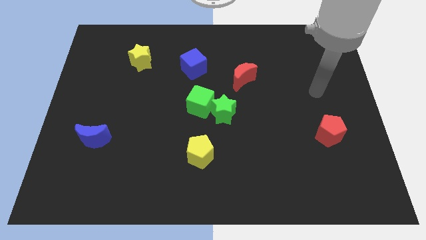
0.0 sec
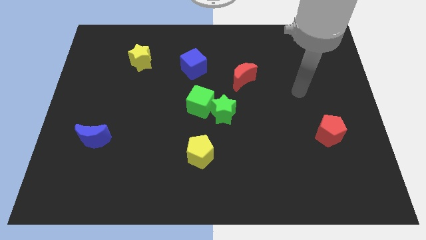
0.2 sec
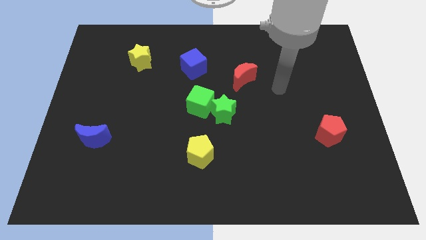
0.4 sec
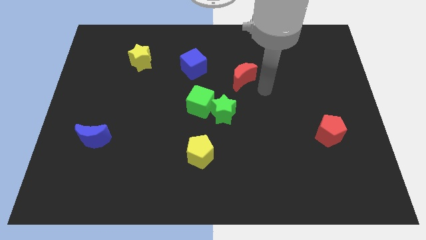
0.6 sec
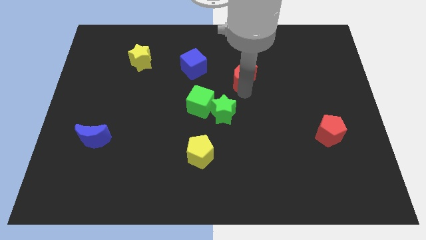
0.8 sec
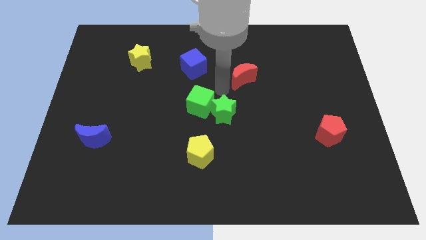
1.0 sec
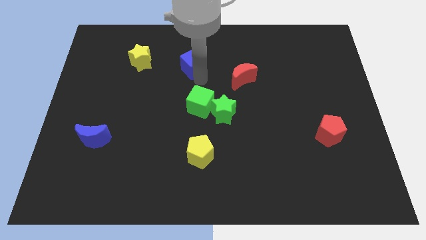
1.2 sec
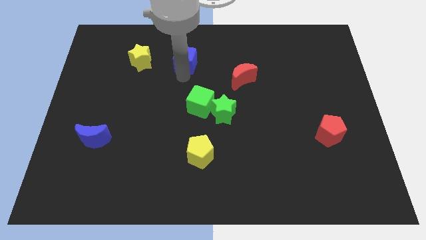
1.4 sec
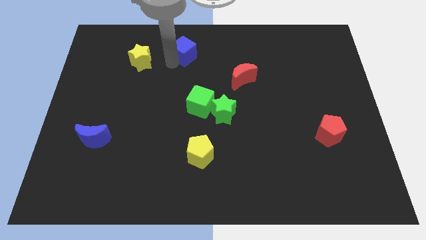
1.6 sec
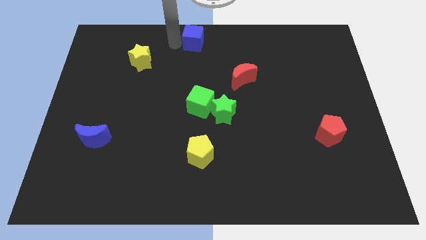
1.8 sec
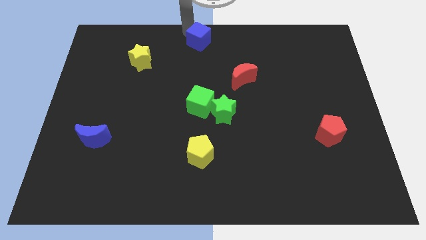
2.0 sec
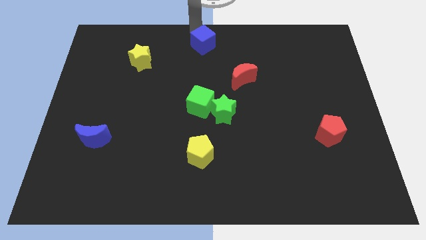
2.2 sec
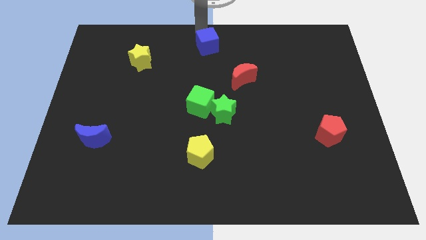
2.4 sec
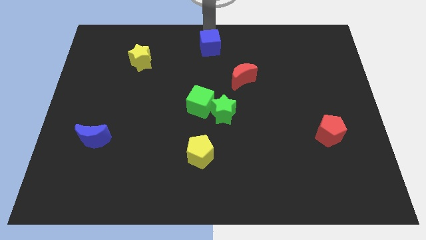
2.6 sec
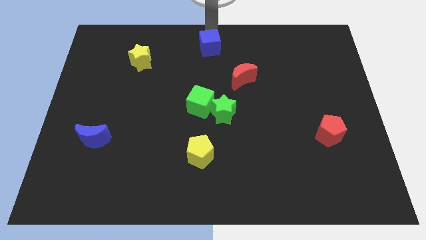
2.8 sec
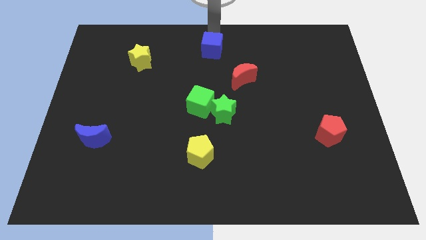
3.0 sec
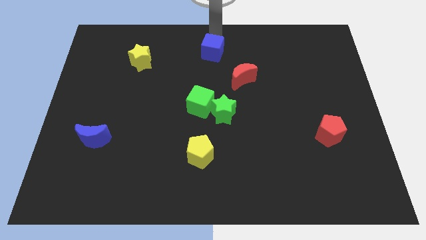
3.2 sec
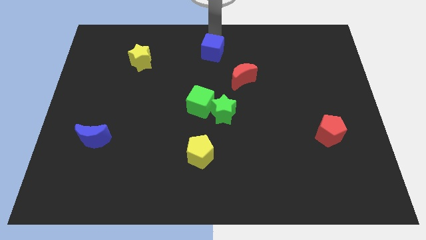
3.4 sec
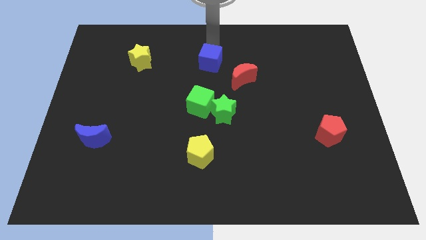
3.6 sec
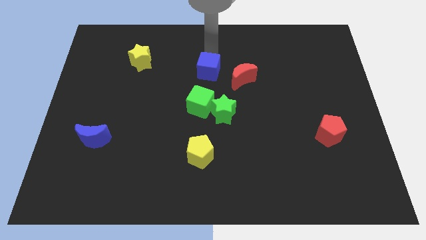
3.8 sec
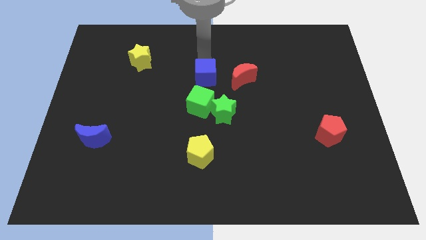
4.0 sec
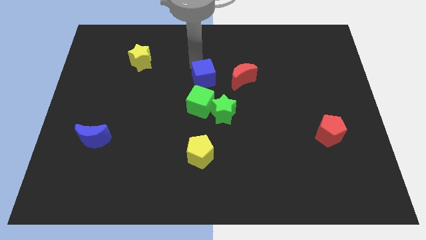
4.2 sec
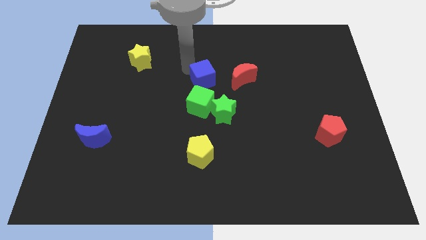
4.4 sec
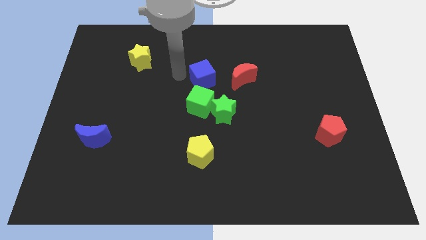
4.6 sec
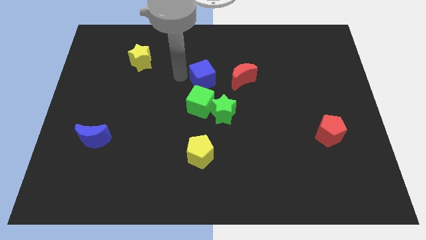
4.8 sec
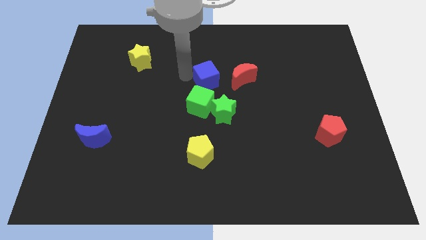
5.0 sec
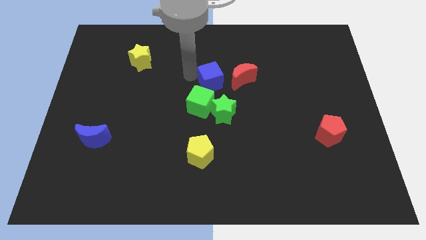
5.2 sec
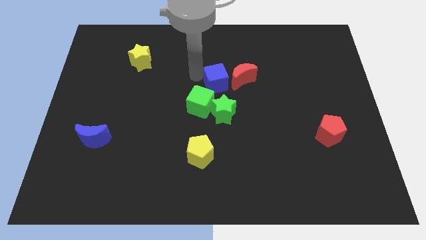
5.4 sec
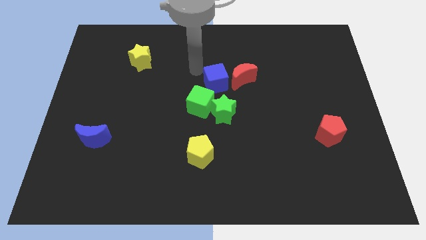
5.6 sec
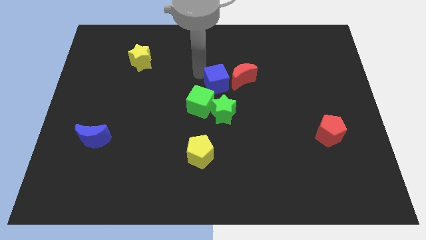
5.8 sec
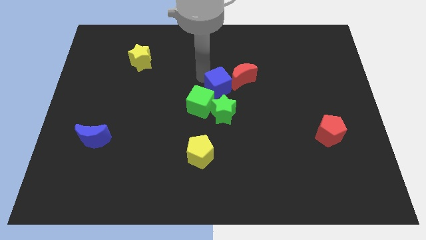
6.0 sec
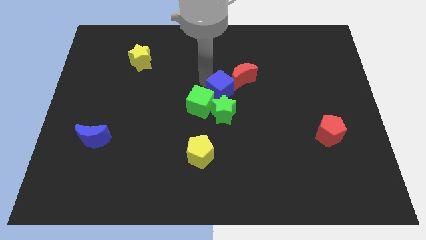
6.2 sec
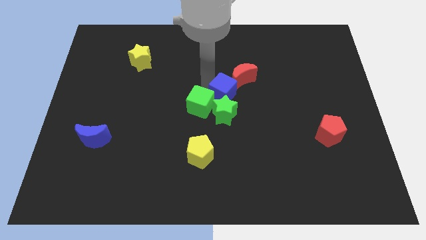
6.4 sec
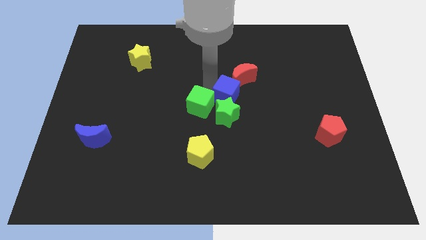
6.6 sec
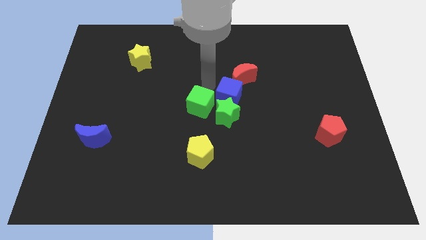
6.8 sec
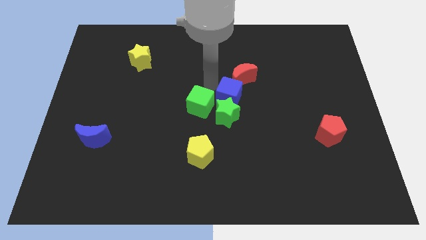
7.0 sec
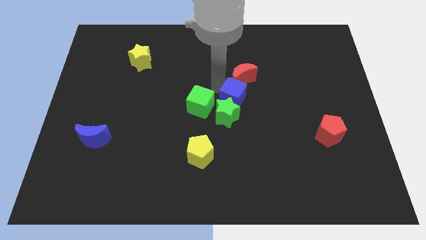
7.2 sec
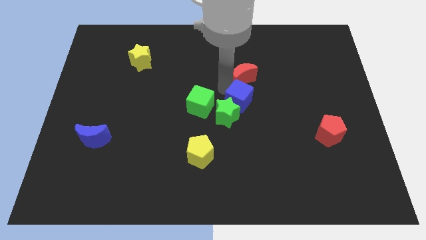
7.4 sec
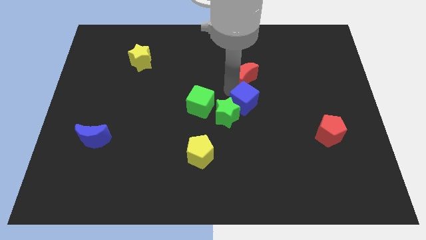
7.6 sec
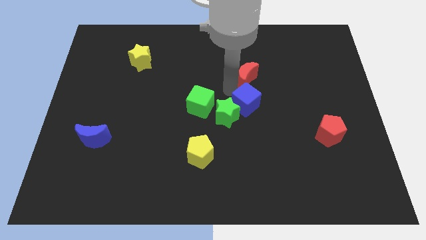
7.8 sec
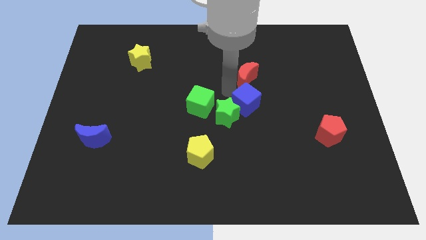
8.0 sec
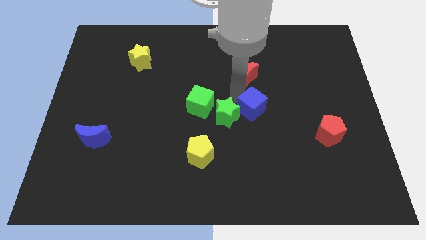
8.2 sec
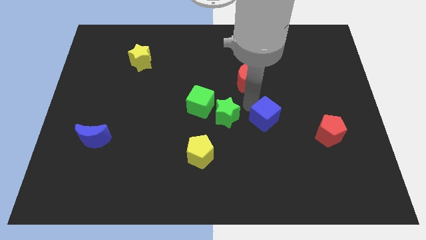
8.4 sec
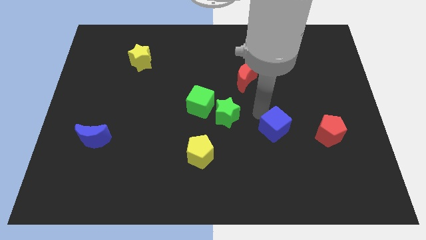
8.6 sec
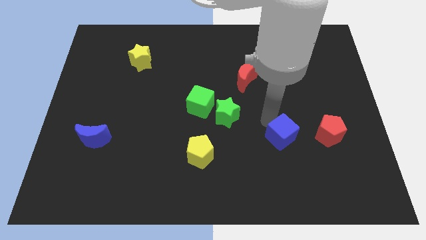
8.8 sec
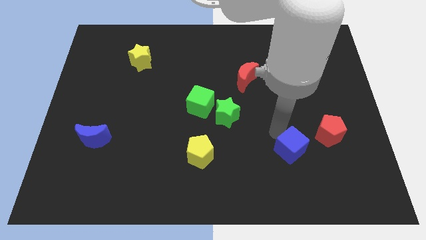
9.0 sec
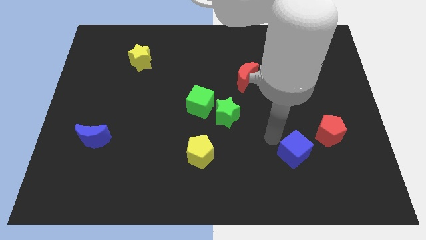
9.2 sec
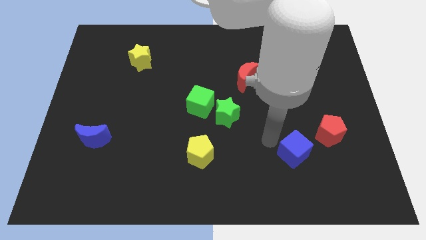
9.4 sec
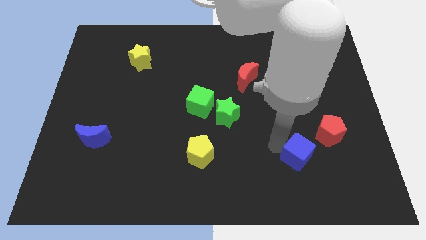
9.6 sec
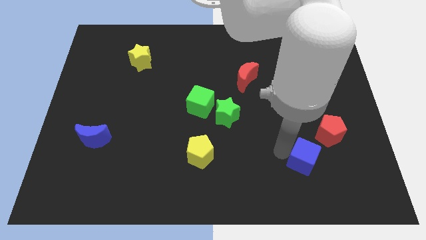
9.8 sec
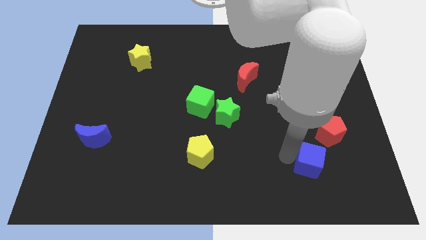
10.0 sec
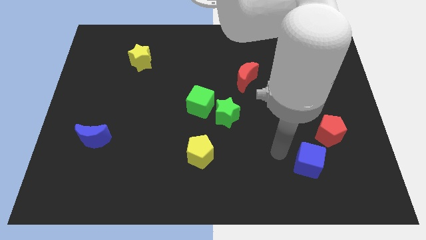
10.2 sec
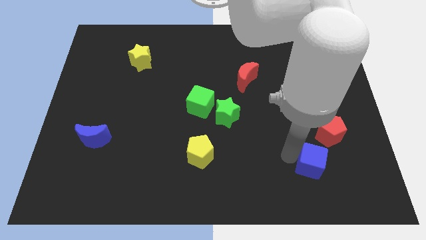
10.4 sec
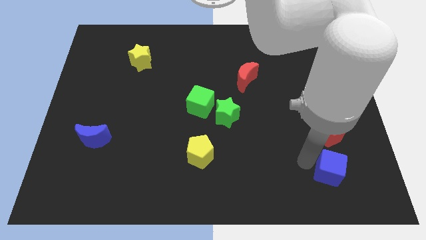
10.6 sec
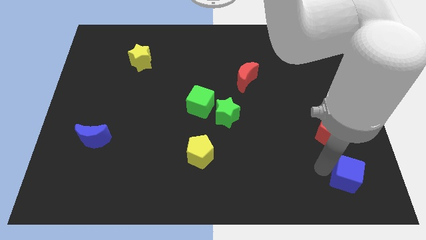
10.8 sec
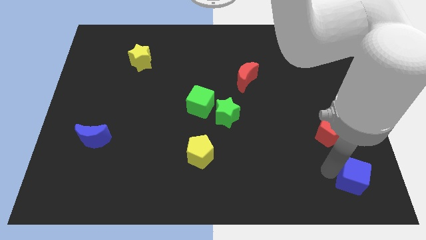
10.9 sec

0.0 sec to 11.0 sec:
put the blue cube to the bottom right corner

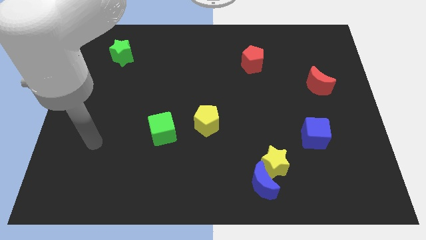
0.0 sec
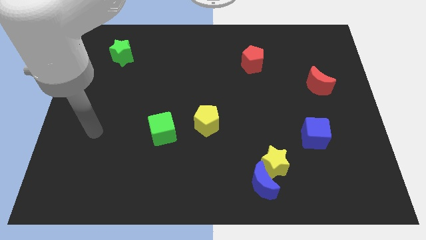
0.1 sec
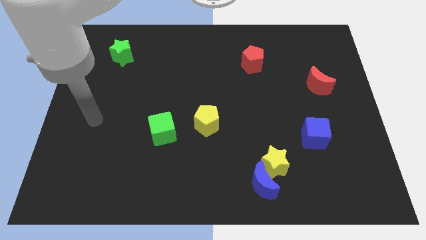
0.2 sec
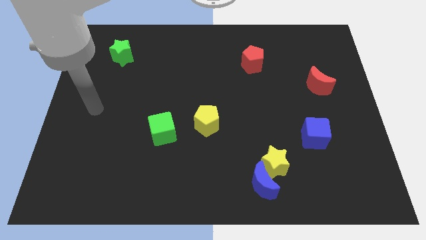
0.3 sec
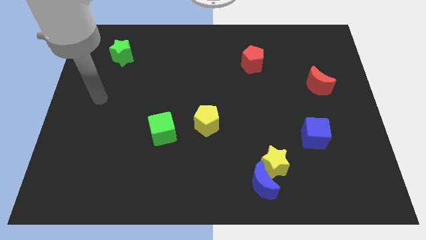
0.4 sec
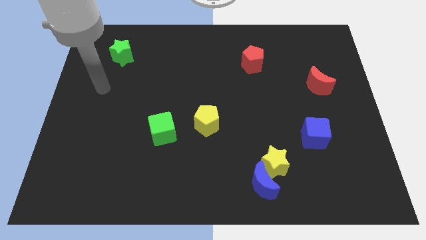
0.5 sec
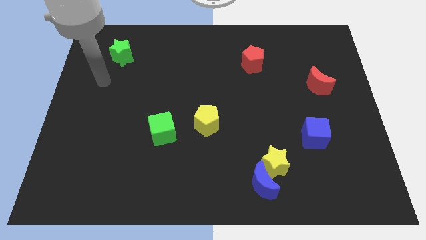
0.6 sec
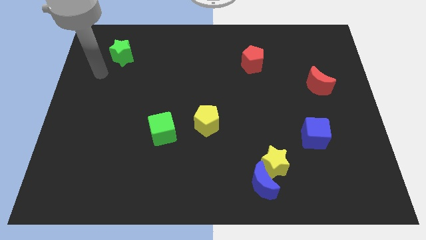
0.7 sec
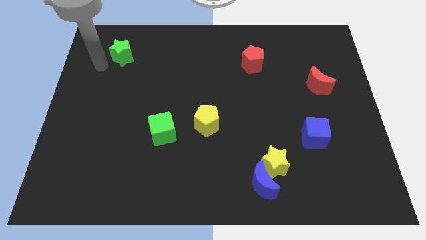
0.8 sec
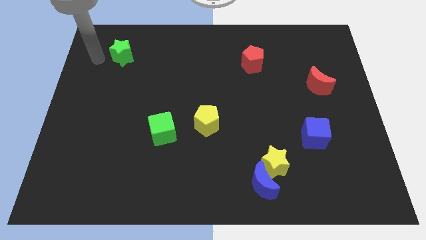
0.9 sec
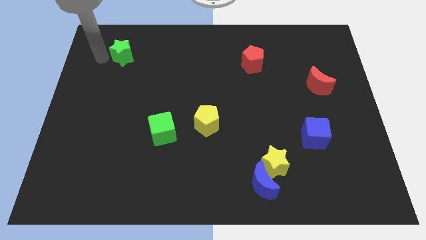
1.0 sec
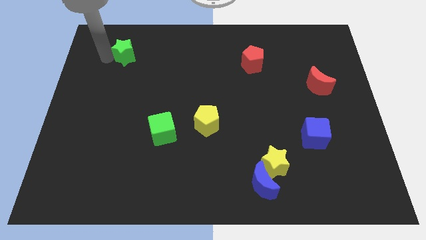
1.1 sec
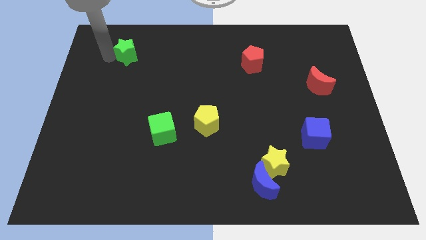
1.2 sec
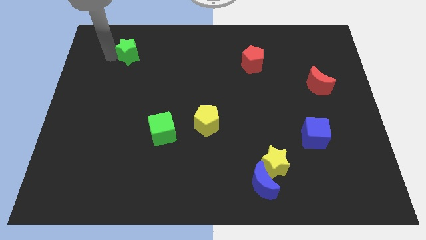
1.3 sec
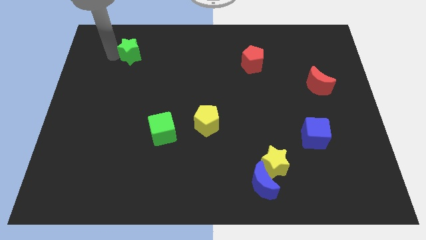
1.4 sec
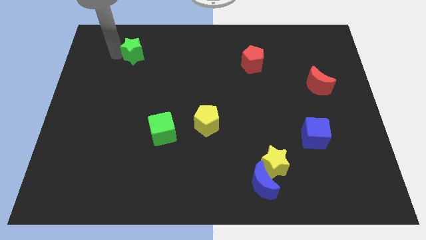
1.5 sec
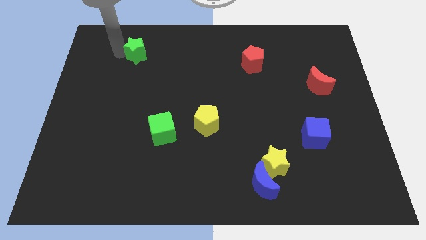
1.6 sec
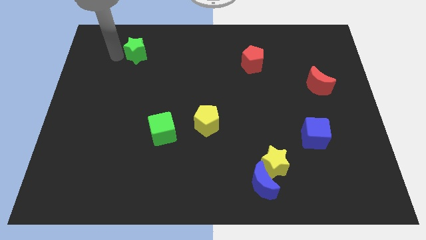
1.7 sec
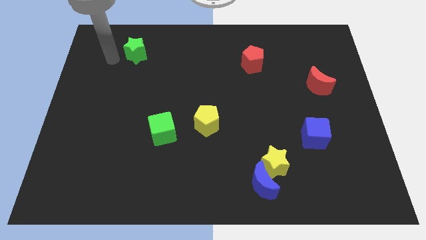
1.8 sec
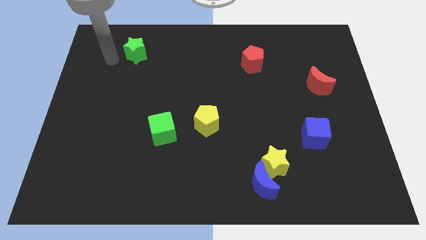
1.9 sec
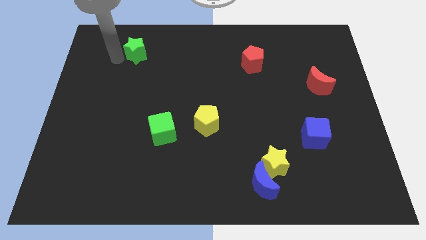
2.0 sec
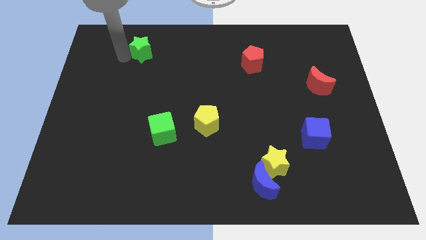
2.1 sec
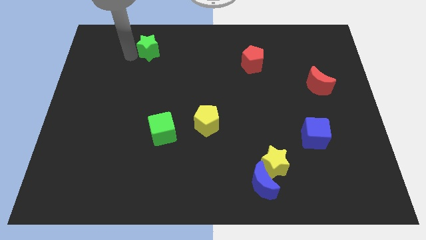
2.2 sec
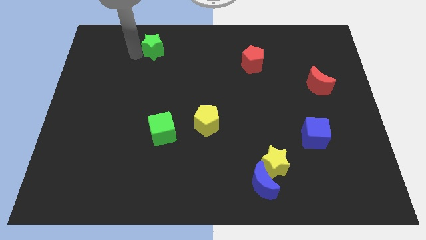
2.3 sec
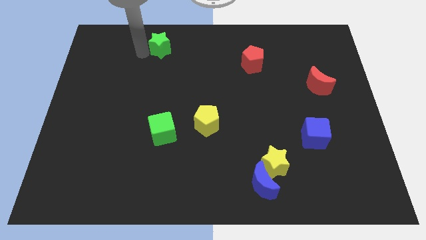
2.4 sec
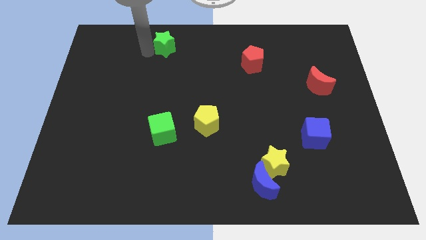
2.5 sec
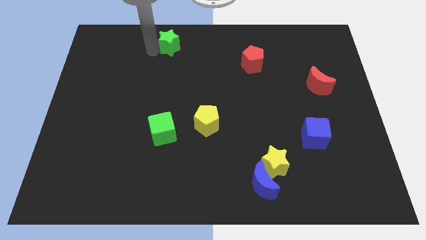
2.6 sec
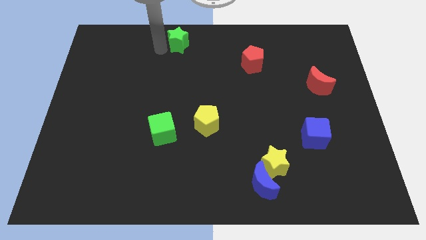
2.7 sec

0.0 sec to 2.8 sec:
slide the green star to the top side
